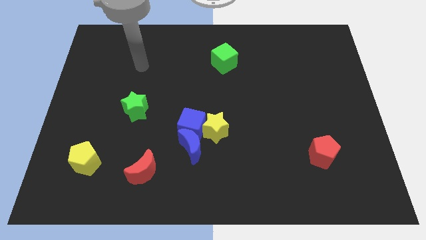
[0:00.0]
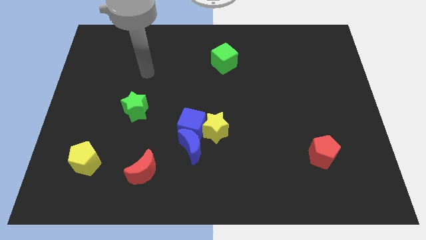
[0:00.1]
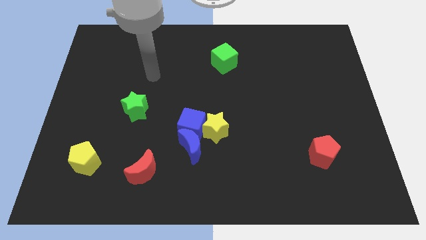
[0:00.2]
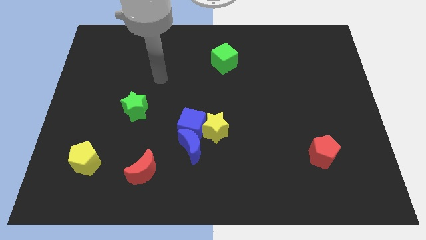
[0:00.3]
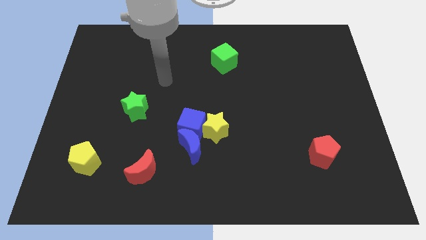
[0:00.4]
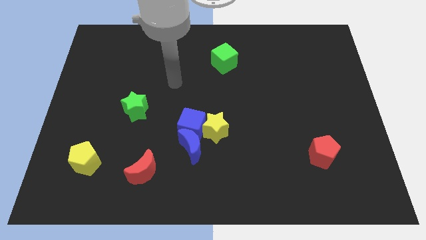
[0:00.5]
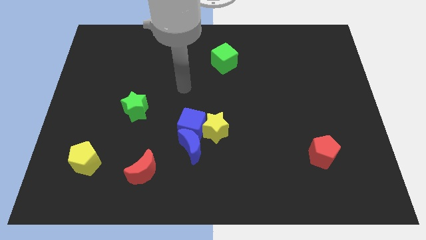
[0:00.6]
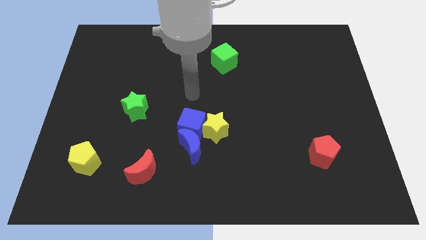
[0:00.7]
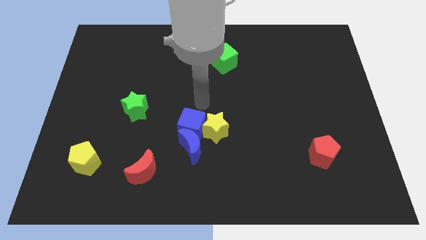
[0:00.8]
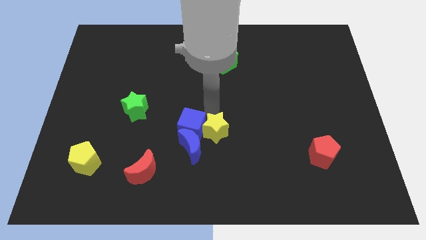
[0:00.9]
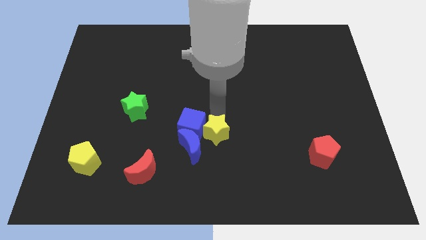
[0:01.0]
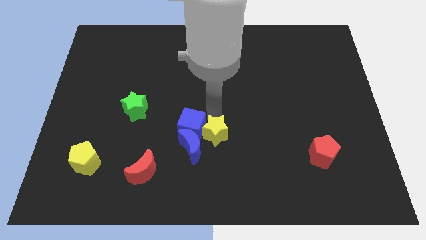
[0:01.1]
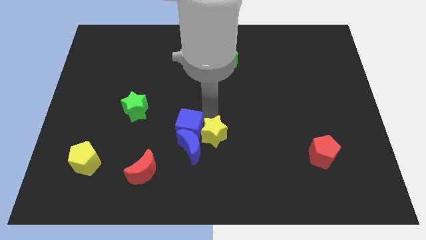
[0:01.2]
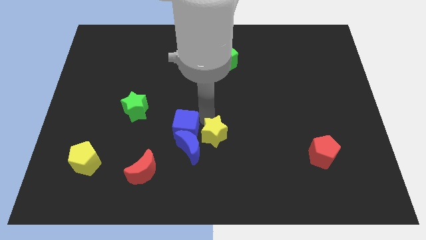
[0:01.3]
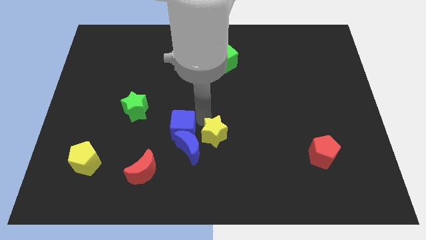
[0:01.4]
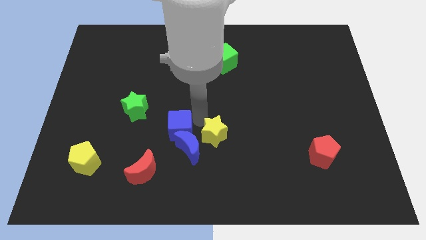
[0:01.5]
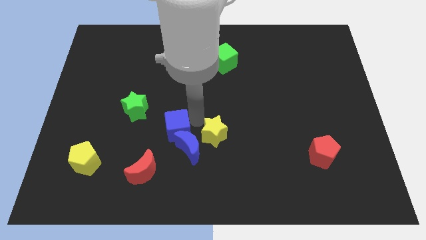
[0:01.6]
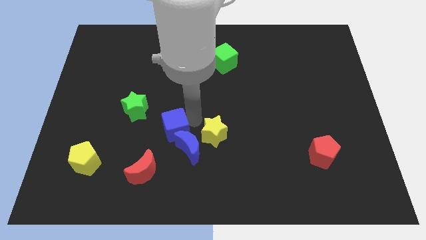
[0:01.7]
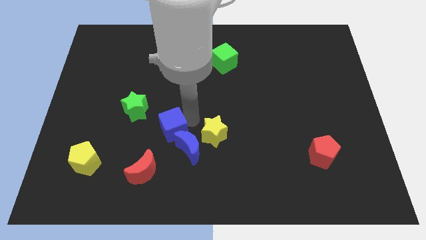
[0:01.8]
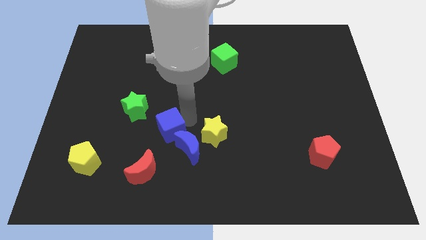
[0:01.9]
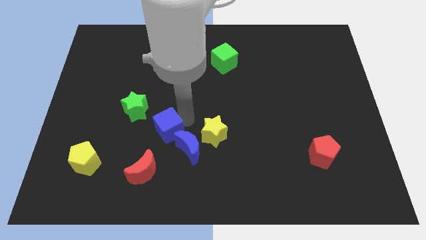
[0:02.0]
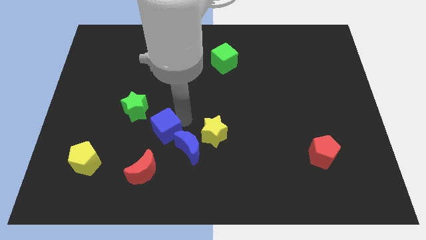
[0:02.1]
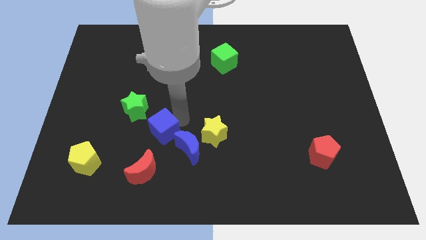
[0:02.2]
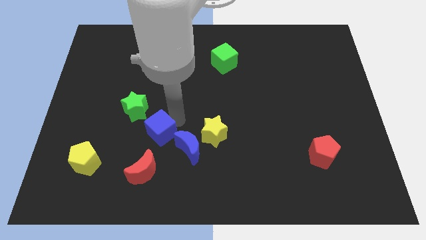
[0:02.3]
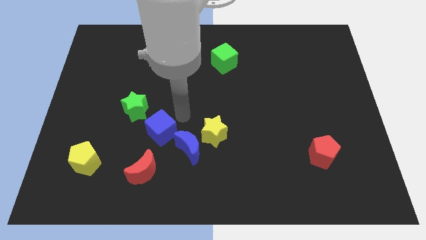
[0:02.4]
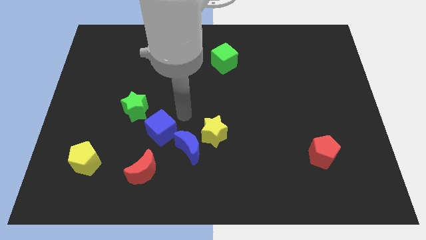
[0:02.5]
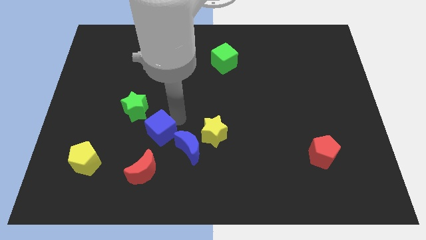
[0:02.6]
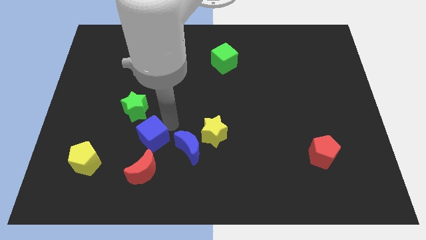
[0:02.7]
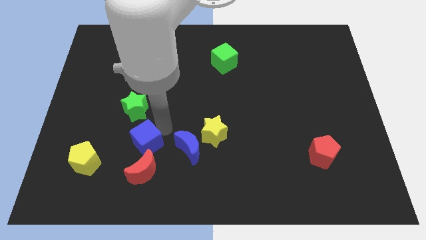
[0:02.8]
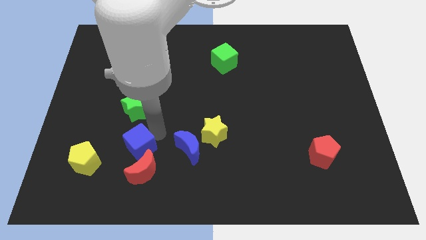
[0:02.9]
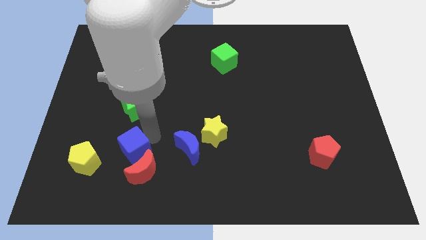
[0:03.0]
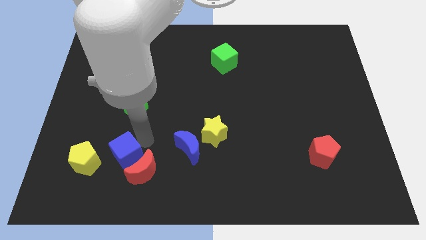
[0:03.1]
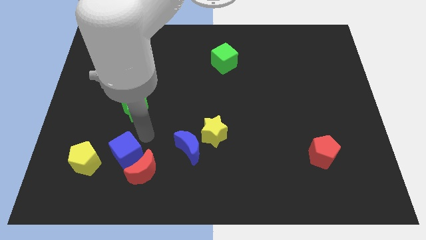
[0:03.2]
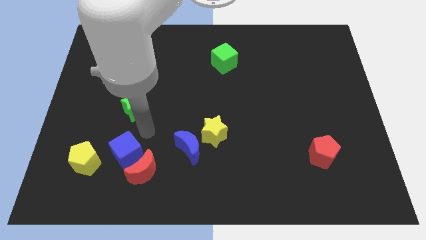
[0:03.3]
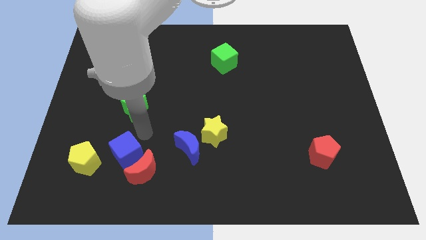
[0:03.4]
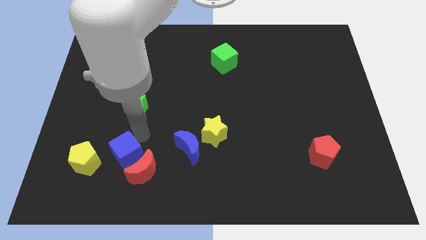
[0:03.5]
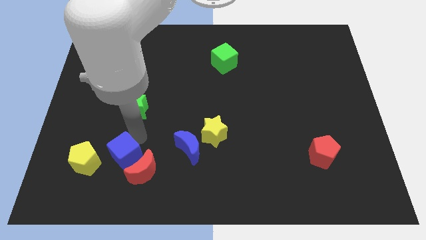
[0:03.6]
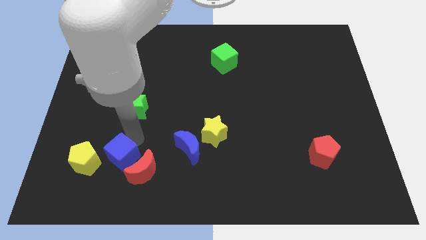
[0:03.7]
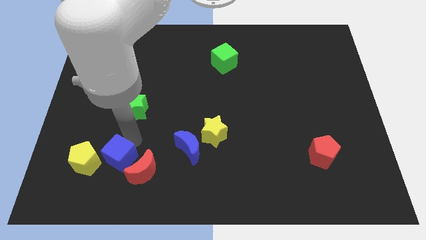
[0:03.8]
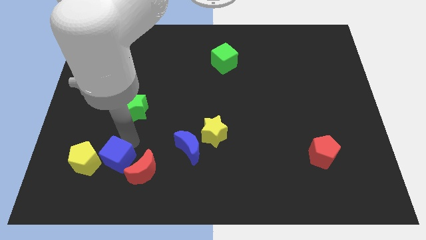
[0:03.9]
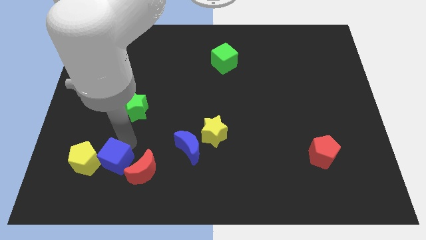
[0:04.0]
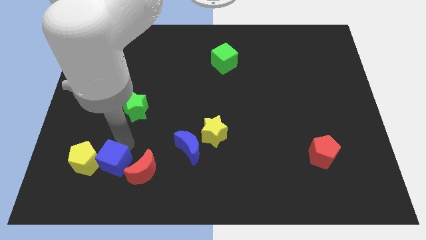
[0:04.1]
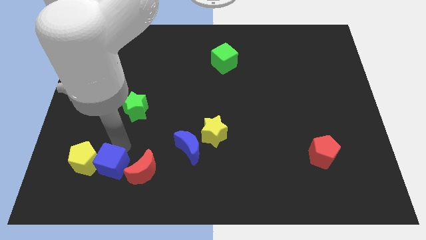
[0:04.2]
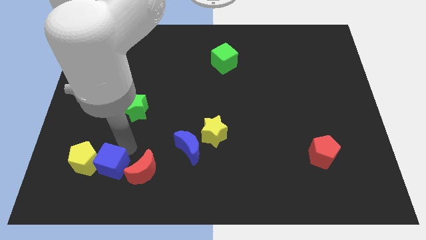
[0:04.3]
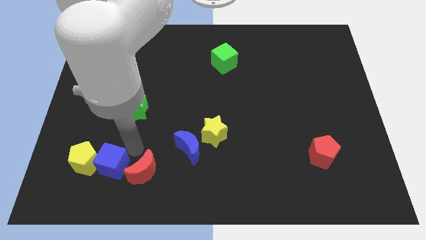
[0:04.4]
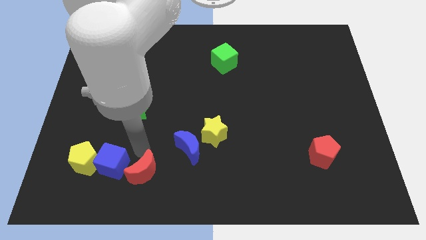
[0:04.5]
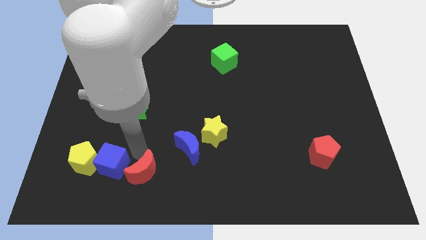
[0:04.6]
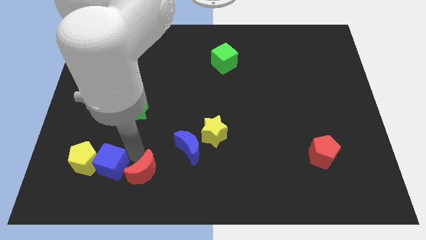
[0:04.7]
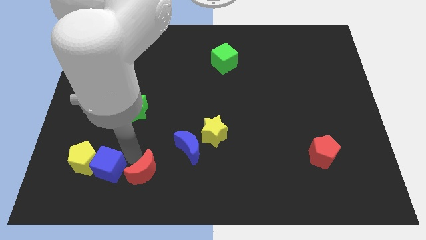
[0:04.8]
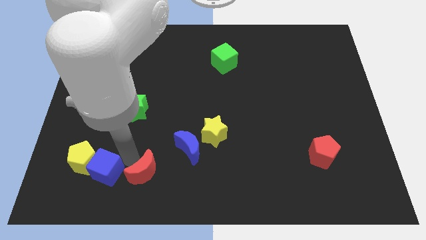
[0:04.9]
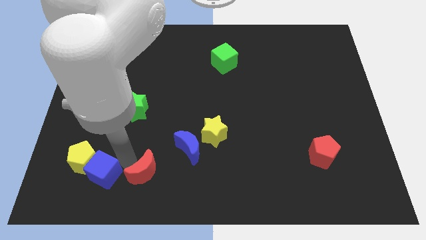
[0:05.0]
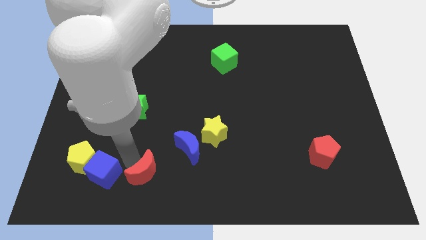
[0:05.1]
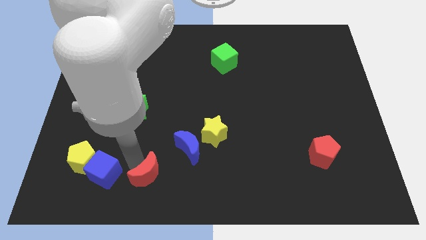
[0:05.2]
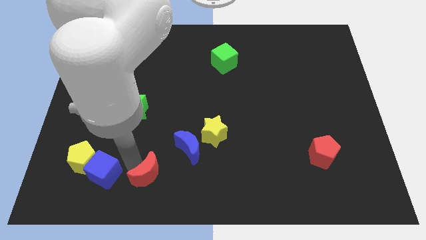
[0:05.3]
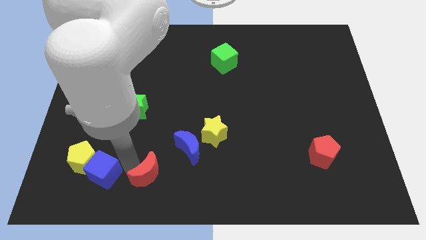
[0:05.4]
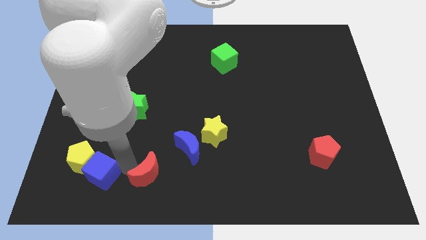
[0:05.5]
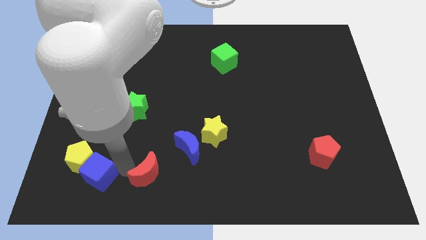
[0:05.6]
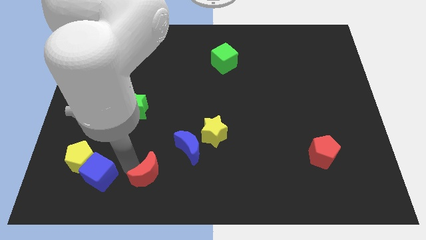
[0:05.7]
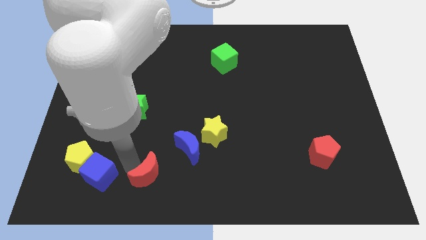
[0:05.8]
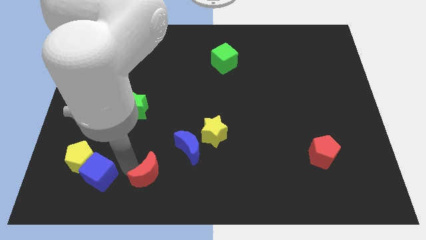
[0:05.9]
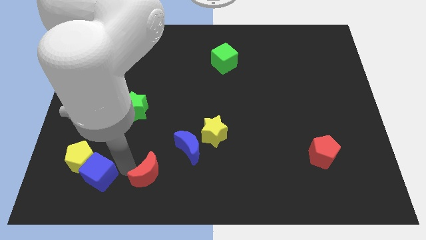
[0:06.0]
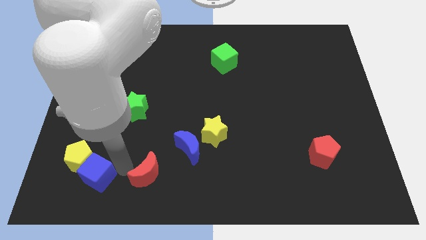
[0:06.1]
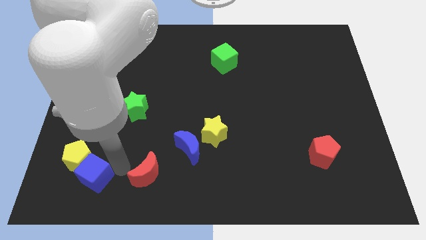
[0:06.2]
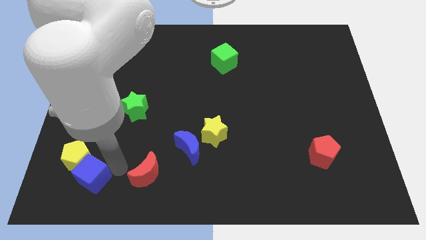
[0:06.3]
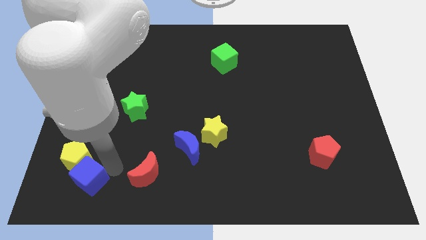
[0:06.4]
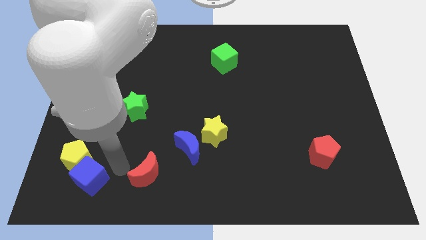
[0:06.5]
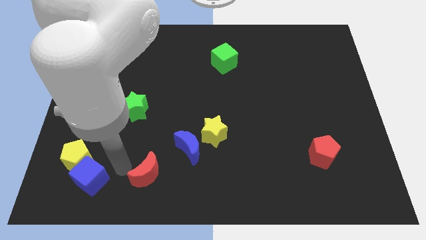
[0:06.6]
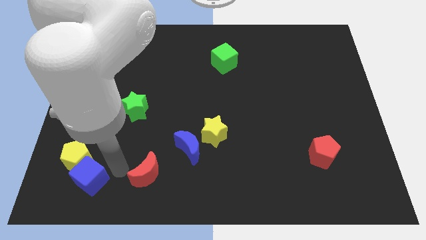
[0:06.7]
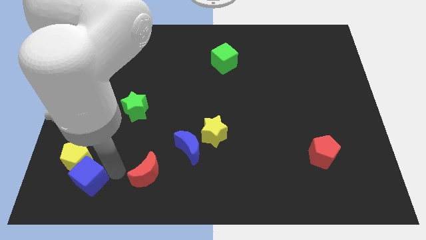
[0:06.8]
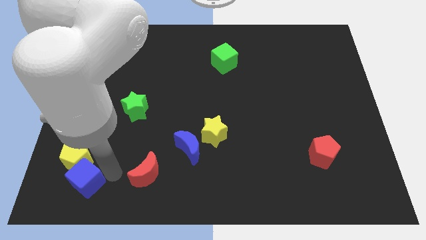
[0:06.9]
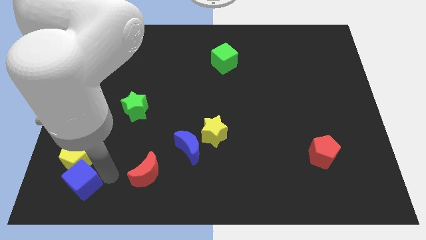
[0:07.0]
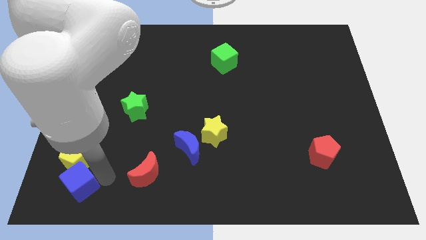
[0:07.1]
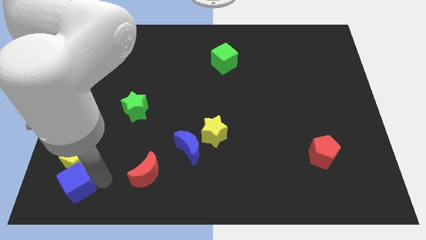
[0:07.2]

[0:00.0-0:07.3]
move the blue cube to the lower left corner
